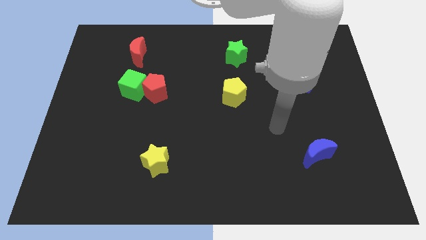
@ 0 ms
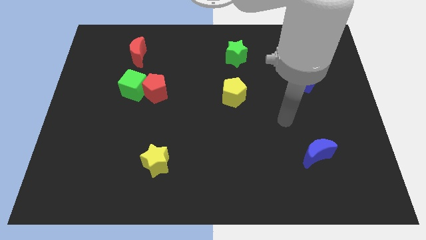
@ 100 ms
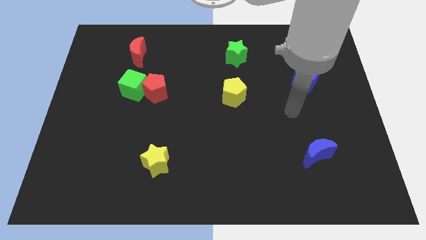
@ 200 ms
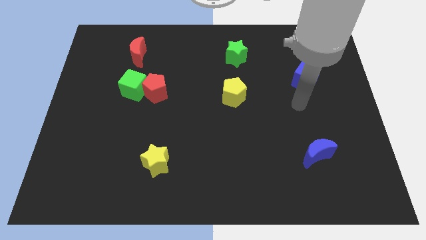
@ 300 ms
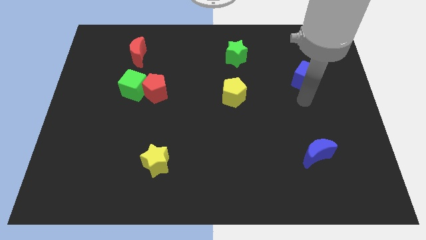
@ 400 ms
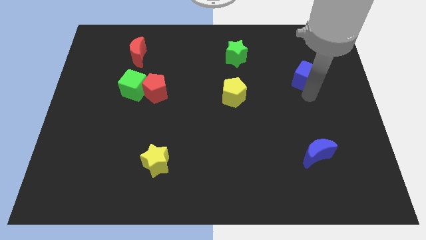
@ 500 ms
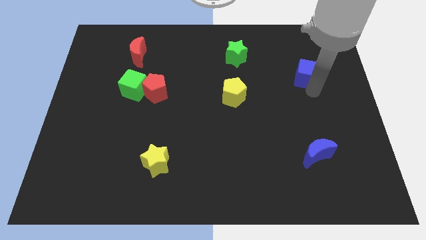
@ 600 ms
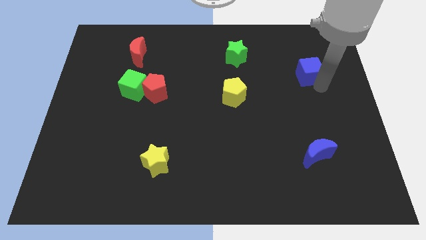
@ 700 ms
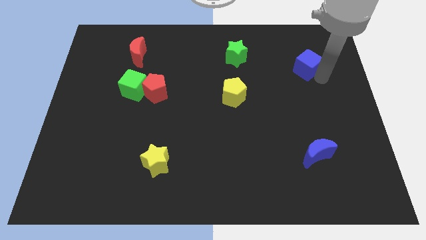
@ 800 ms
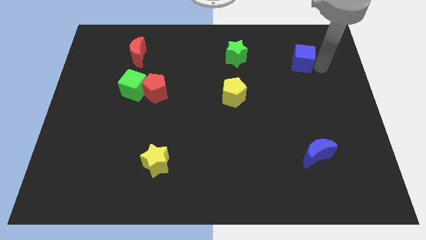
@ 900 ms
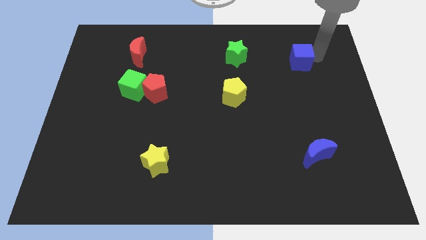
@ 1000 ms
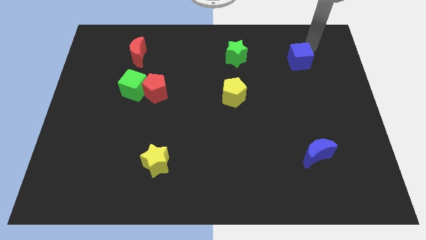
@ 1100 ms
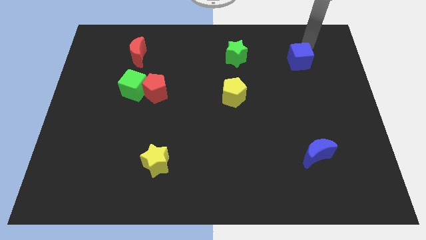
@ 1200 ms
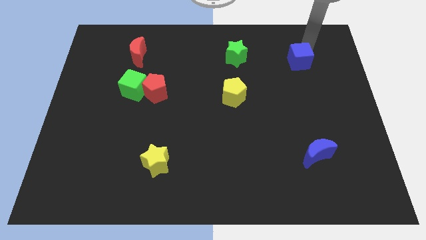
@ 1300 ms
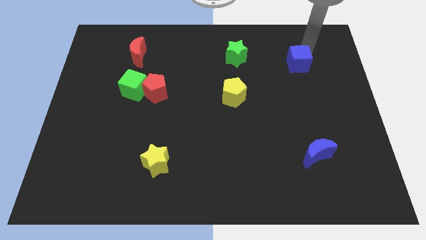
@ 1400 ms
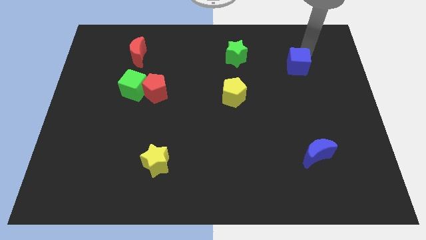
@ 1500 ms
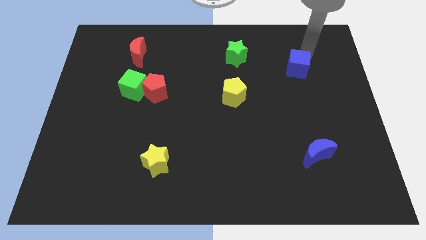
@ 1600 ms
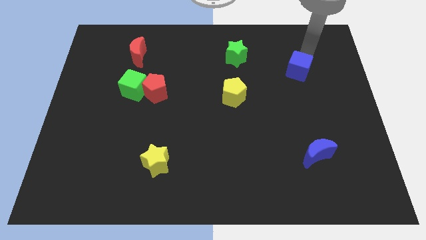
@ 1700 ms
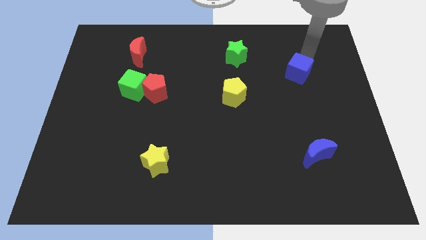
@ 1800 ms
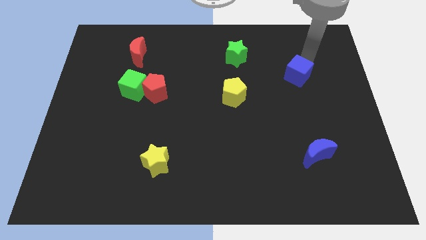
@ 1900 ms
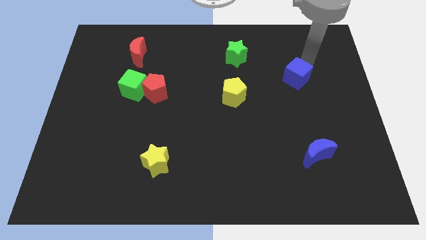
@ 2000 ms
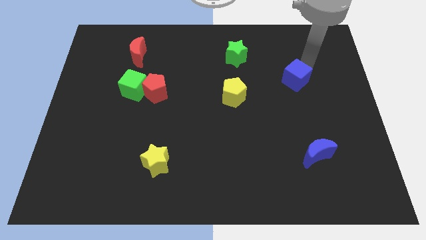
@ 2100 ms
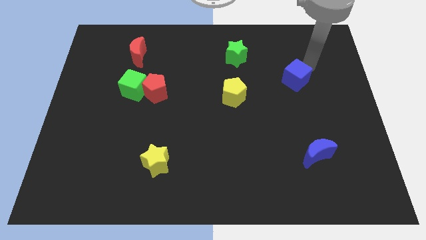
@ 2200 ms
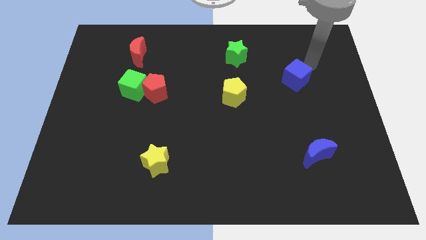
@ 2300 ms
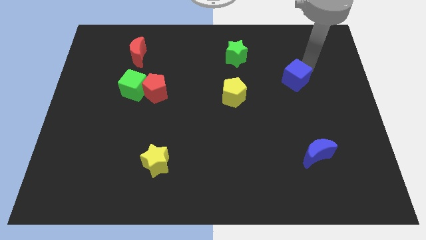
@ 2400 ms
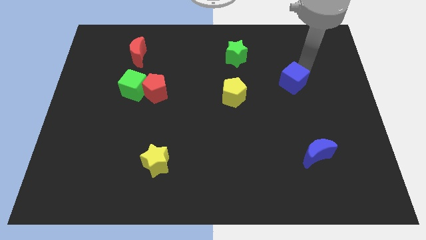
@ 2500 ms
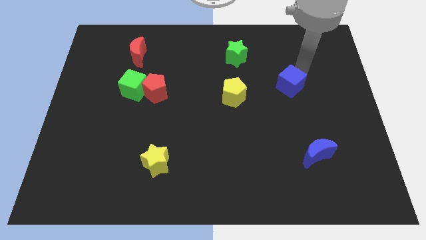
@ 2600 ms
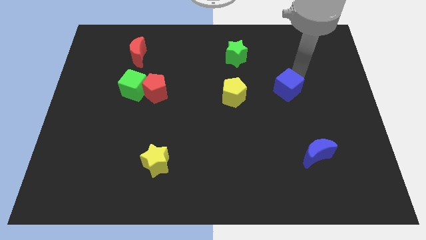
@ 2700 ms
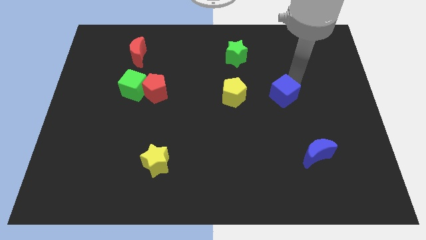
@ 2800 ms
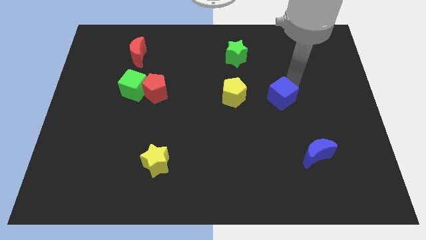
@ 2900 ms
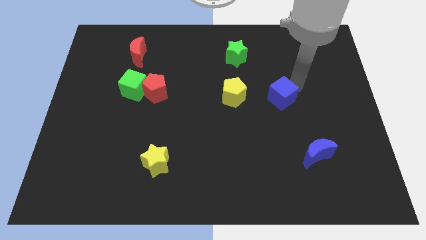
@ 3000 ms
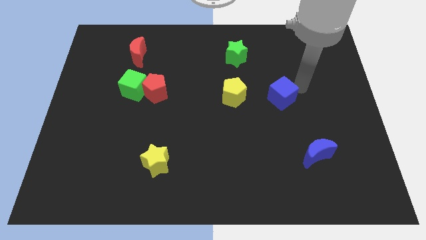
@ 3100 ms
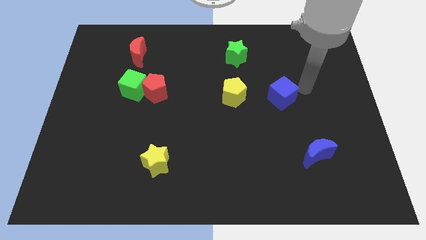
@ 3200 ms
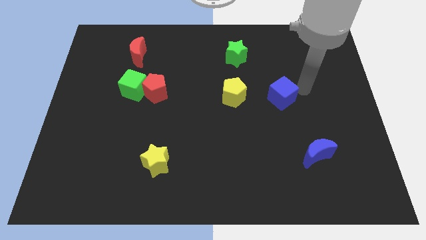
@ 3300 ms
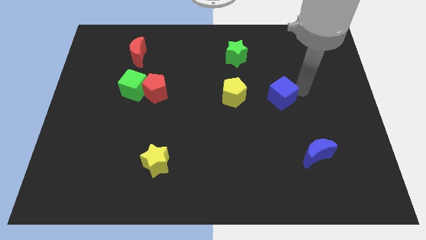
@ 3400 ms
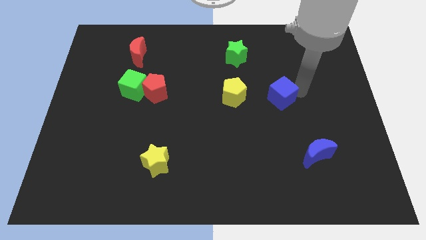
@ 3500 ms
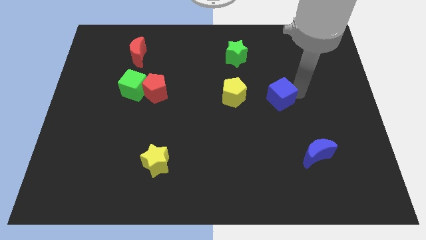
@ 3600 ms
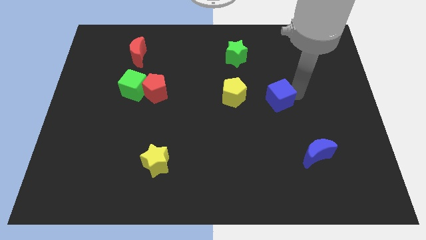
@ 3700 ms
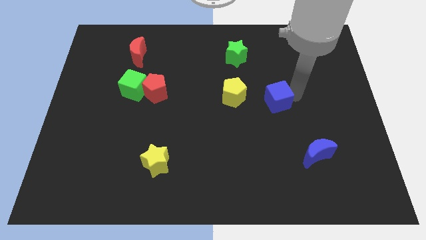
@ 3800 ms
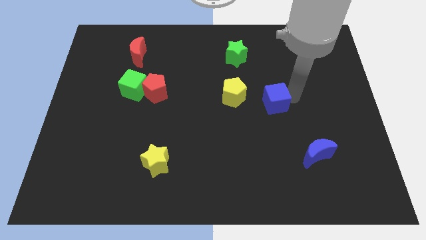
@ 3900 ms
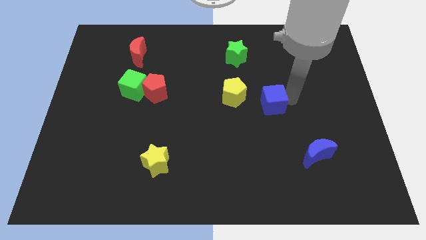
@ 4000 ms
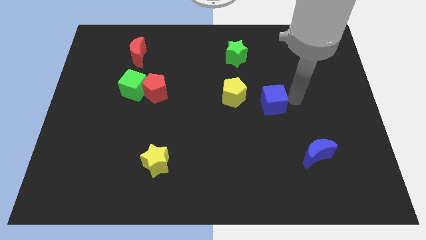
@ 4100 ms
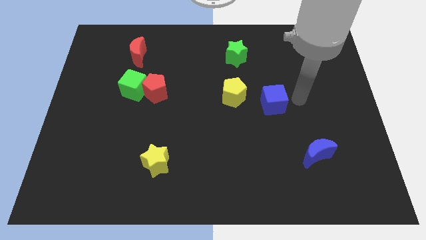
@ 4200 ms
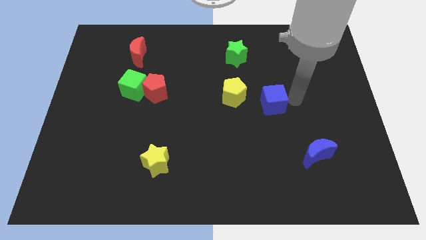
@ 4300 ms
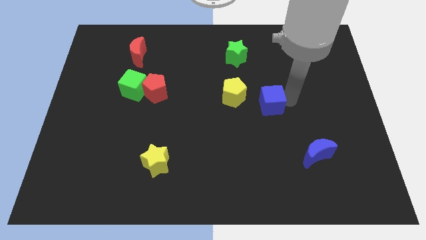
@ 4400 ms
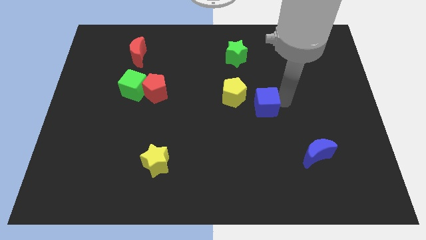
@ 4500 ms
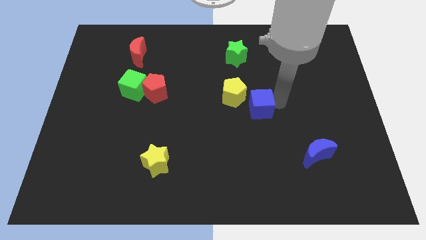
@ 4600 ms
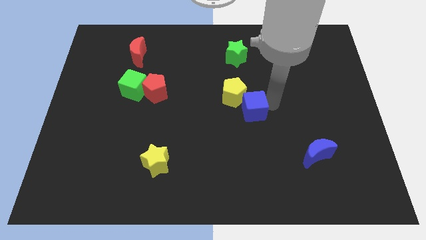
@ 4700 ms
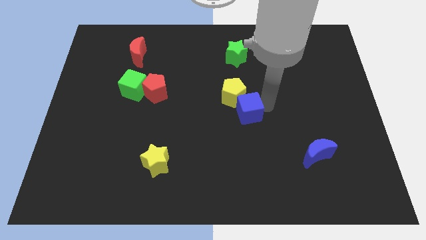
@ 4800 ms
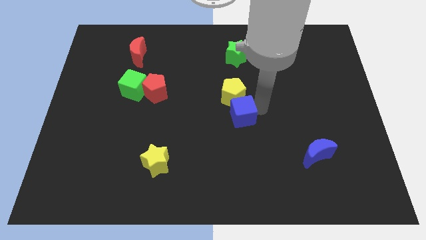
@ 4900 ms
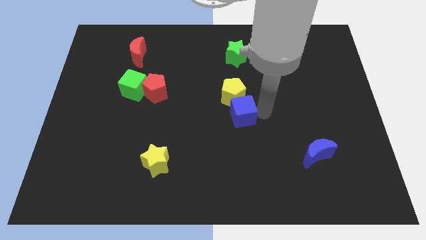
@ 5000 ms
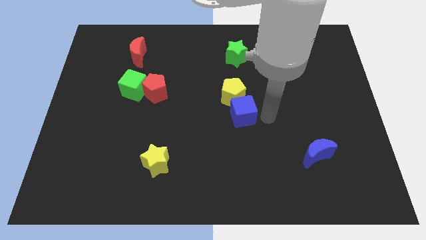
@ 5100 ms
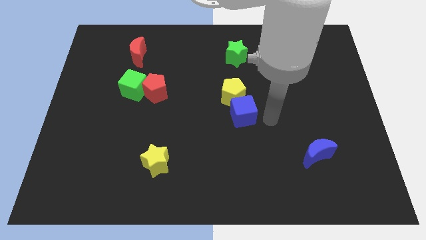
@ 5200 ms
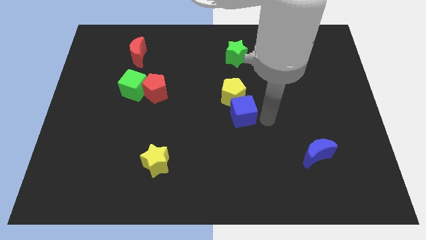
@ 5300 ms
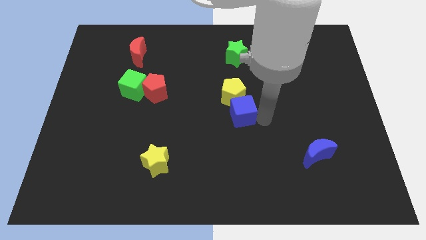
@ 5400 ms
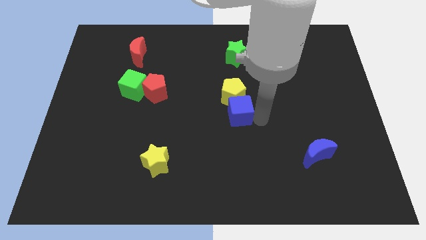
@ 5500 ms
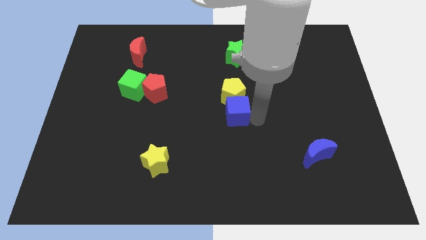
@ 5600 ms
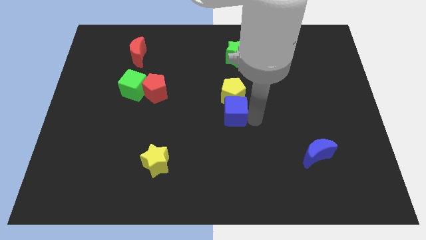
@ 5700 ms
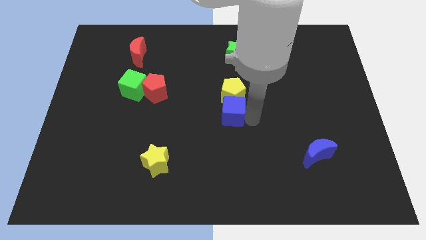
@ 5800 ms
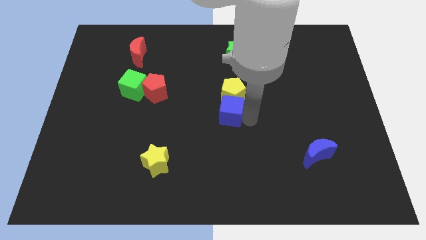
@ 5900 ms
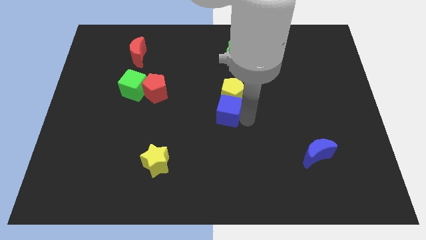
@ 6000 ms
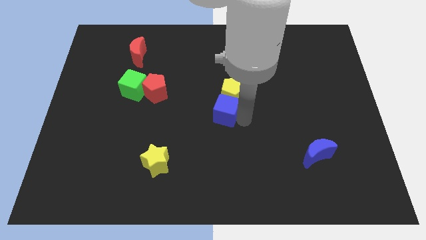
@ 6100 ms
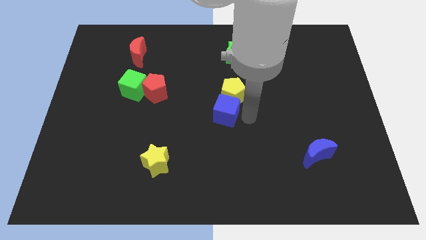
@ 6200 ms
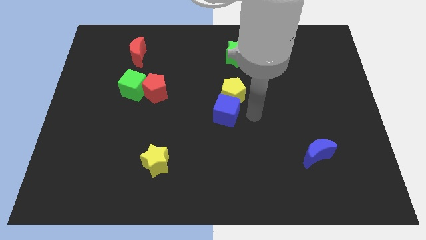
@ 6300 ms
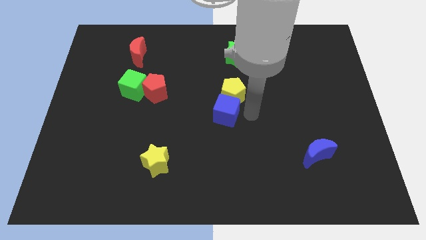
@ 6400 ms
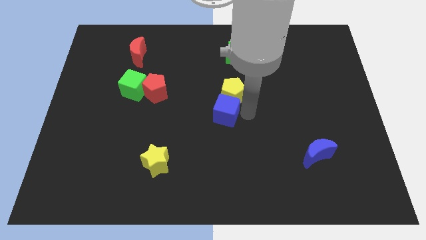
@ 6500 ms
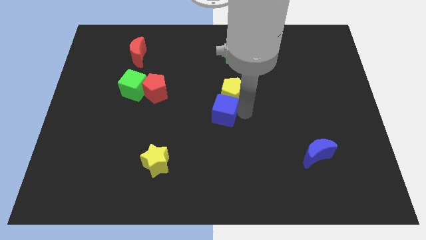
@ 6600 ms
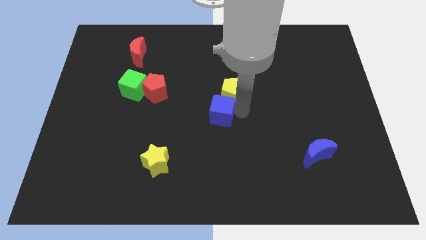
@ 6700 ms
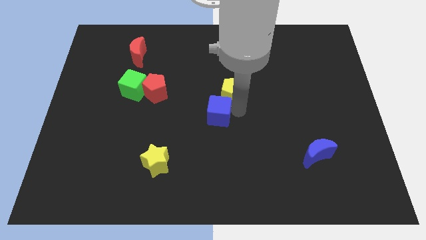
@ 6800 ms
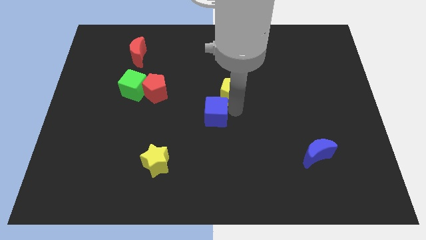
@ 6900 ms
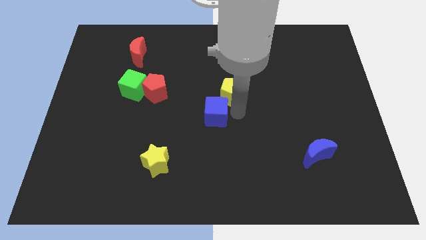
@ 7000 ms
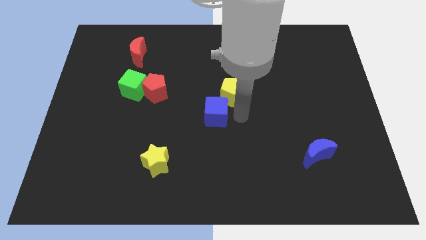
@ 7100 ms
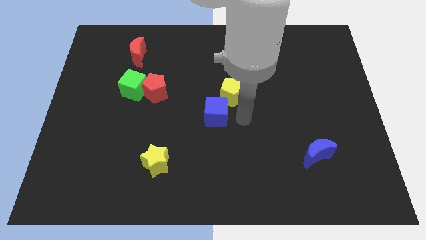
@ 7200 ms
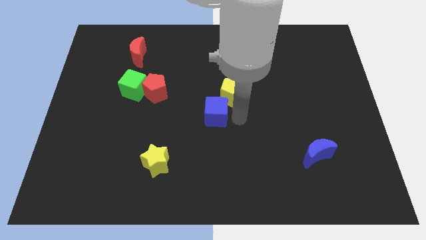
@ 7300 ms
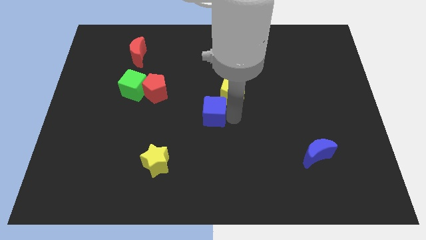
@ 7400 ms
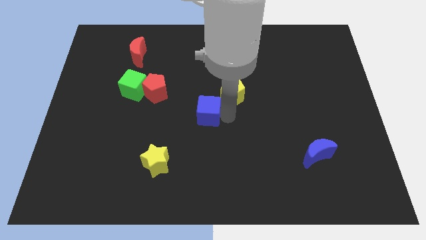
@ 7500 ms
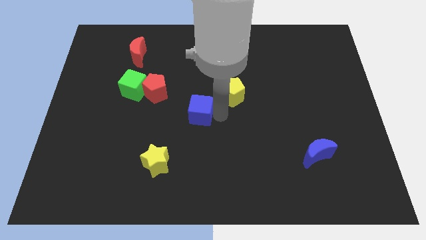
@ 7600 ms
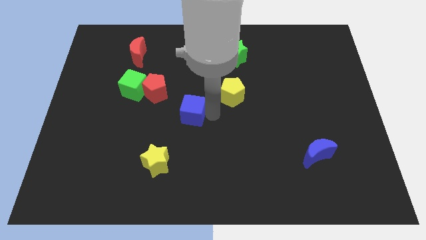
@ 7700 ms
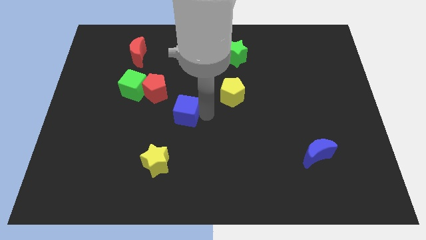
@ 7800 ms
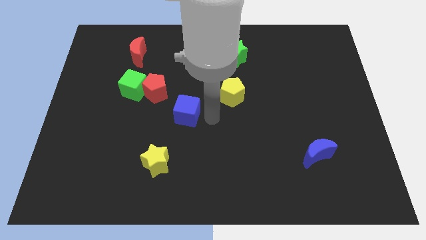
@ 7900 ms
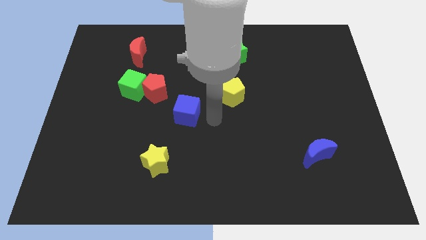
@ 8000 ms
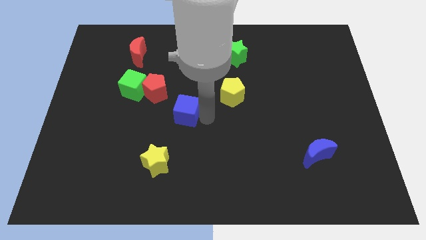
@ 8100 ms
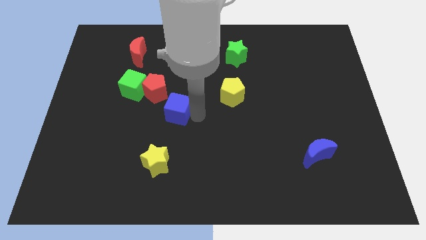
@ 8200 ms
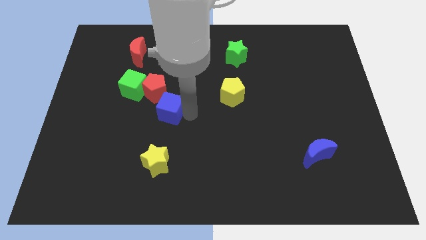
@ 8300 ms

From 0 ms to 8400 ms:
slide the blue cube to the bottom right side of the green cube
